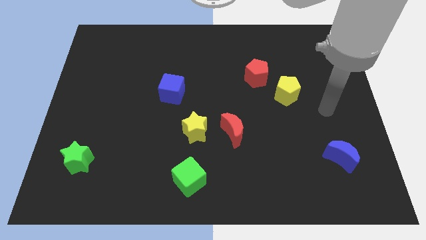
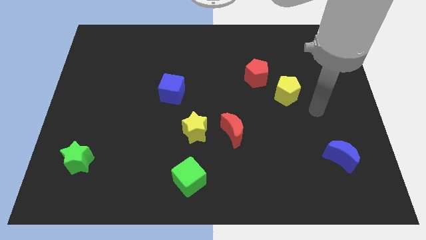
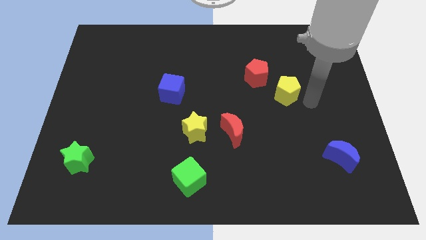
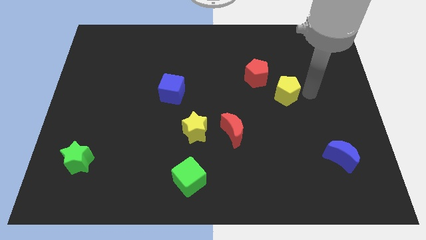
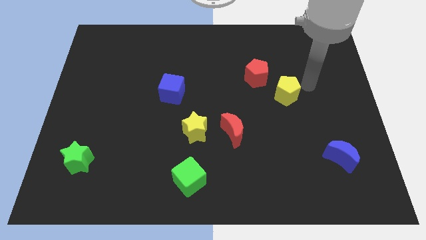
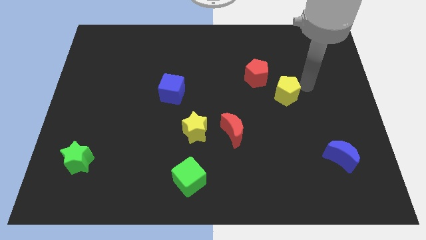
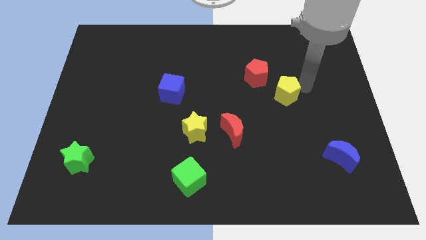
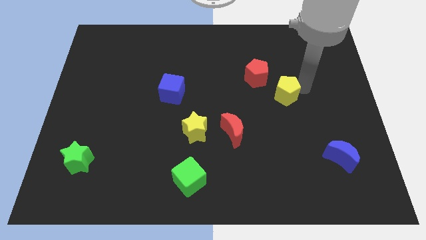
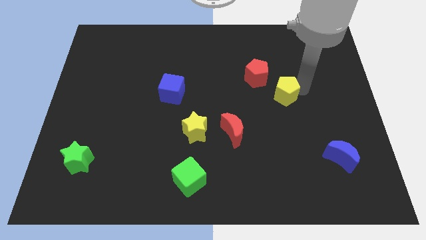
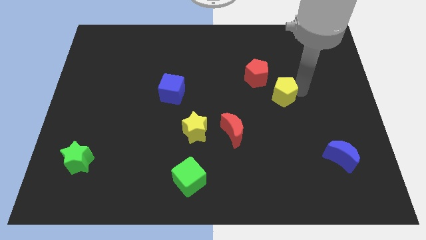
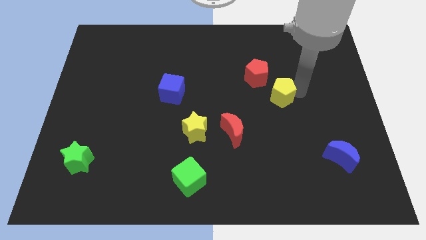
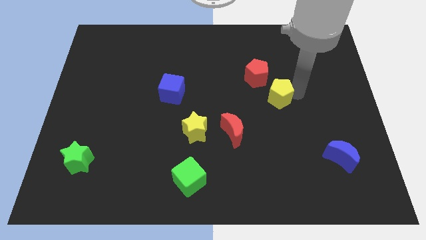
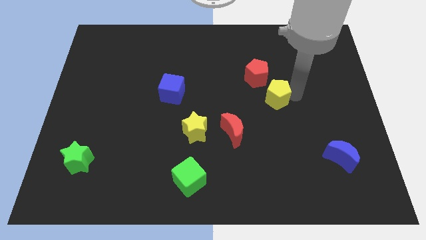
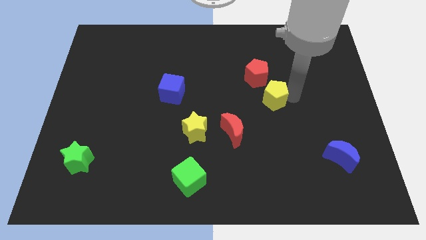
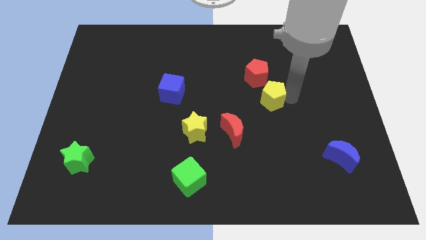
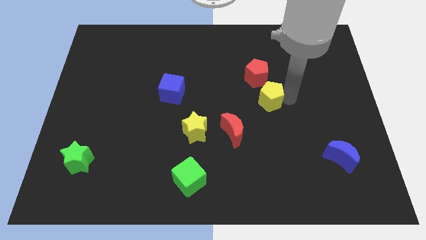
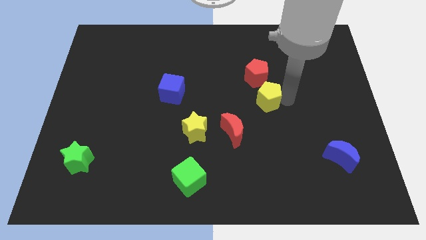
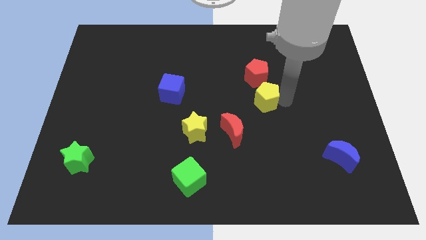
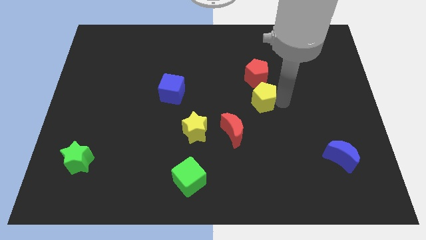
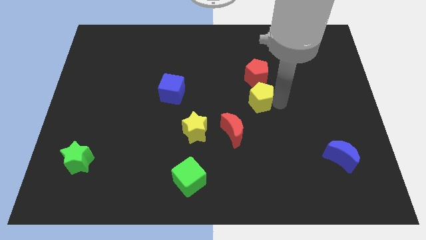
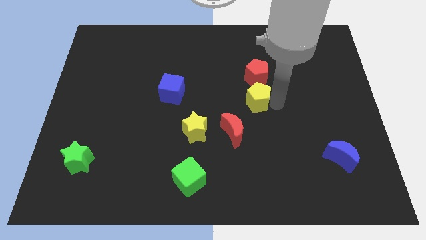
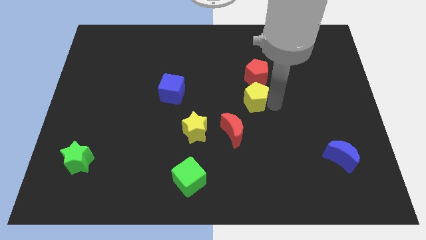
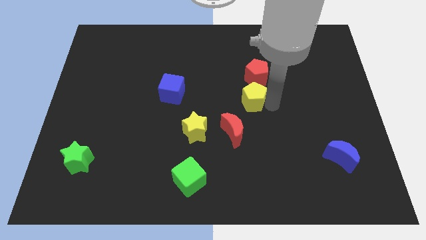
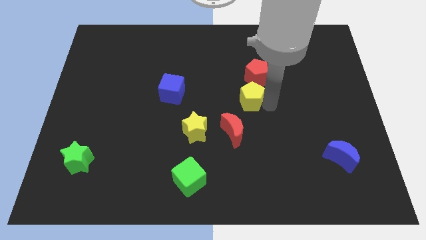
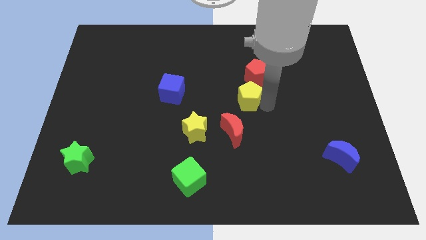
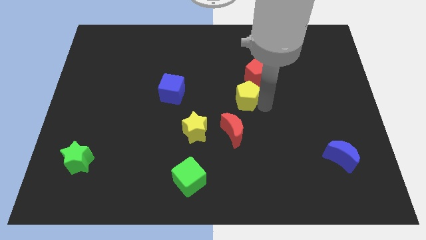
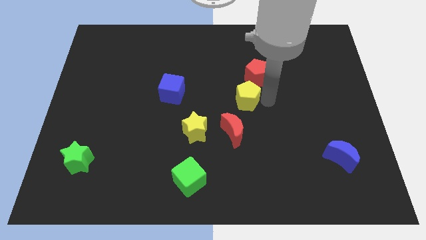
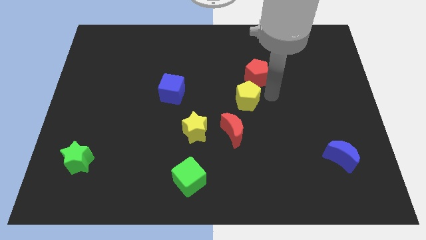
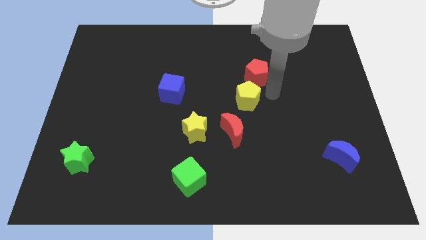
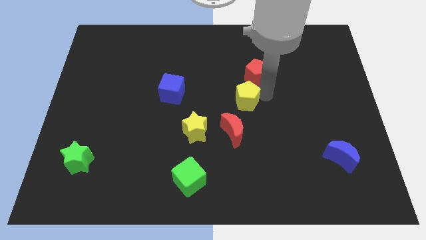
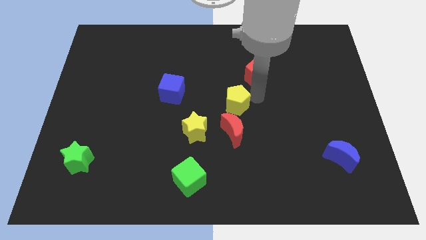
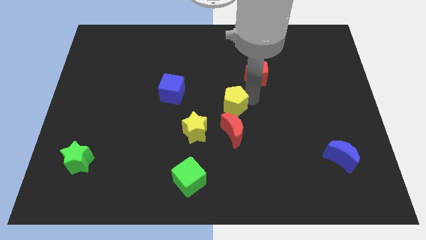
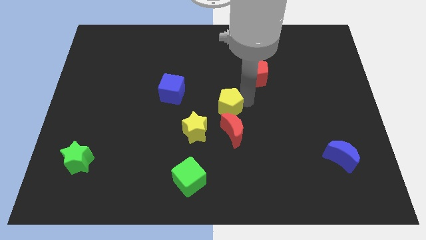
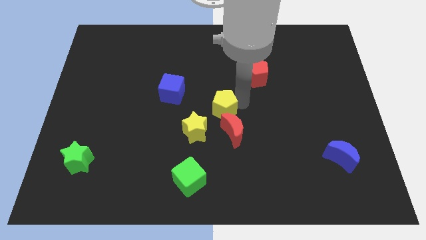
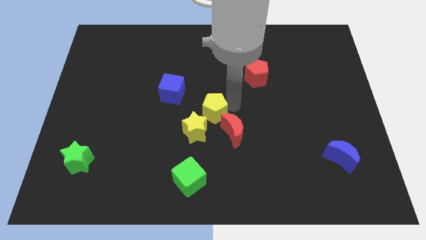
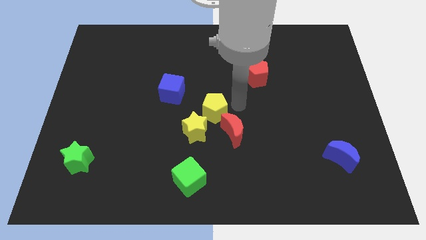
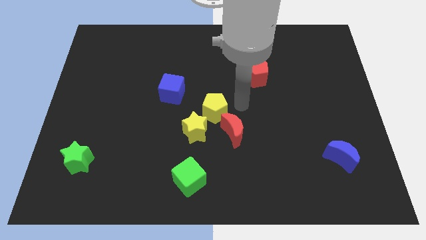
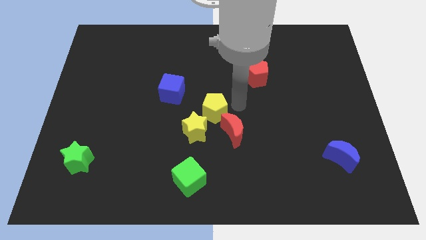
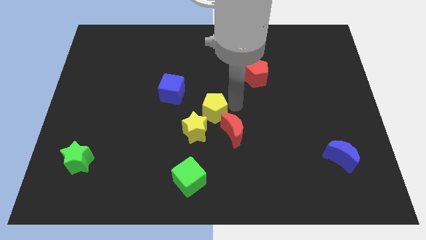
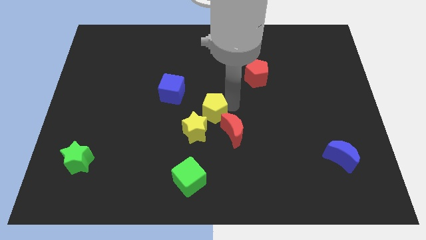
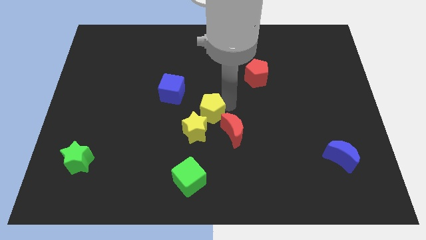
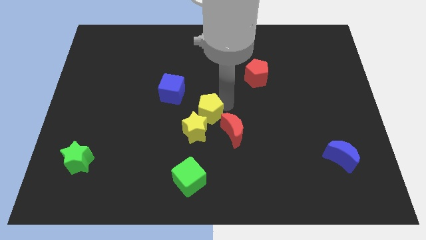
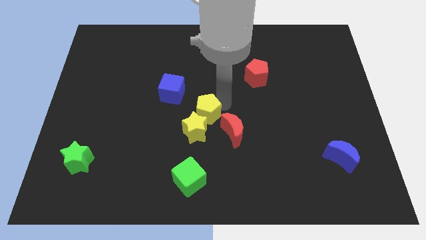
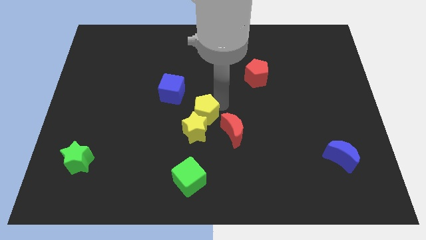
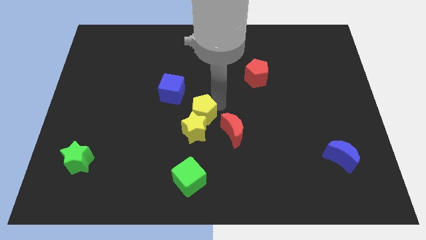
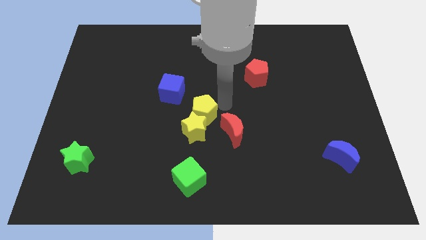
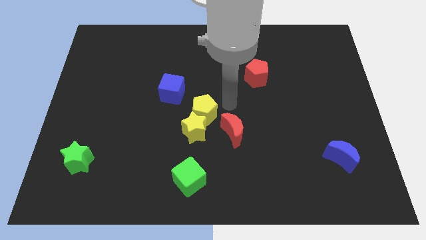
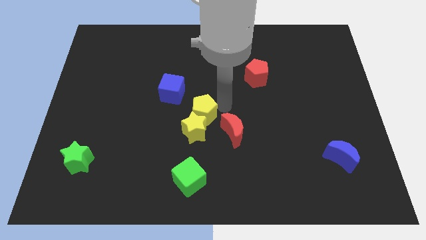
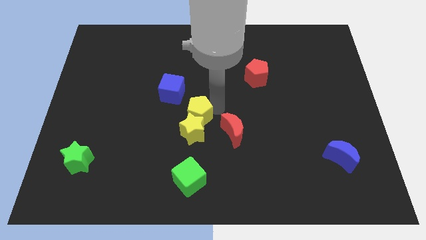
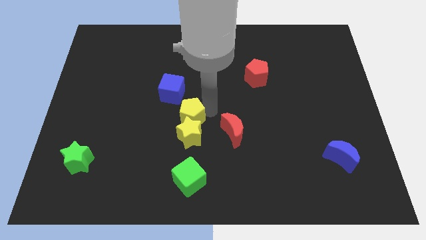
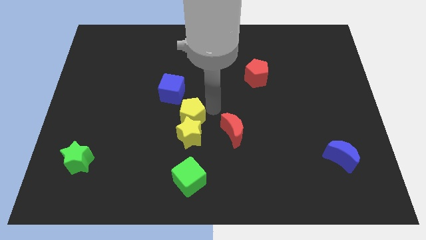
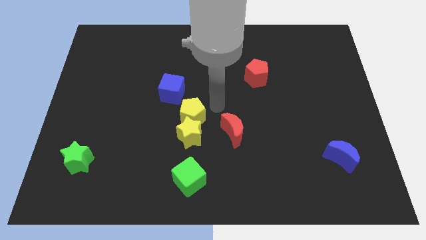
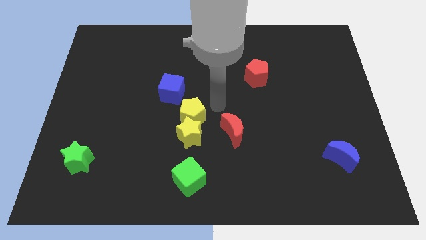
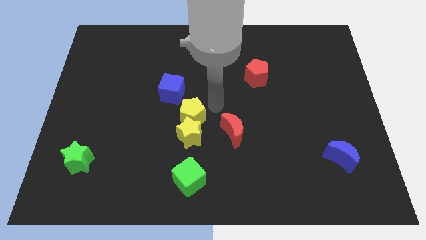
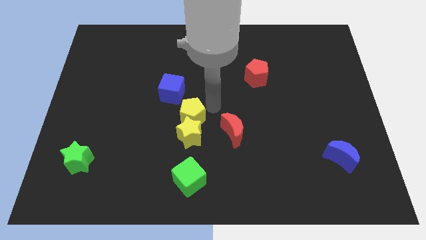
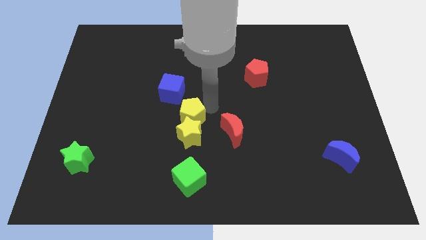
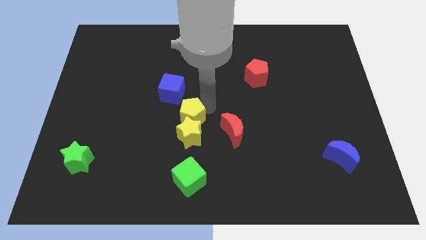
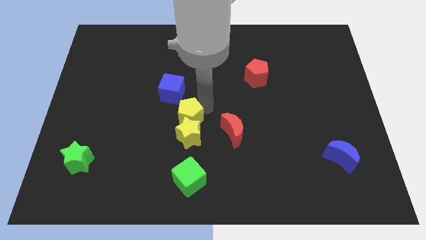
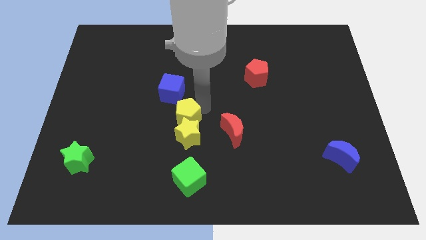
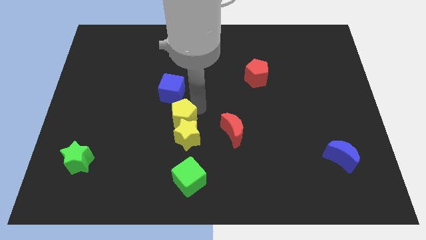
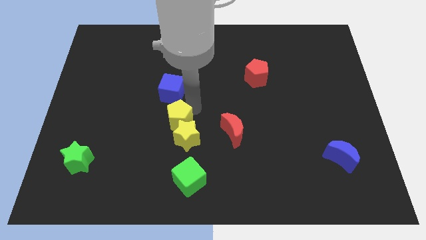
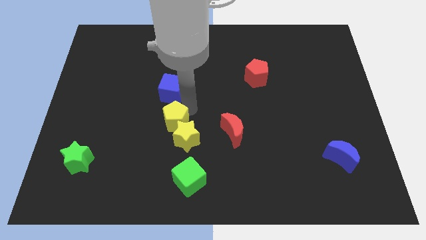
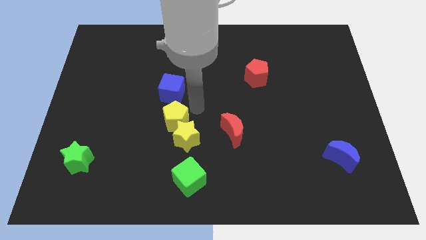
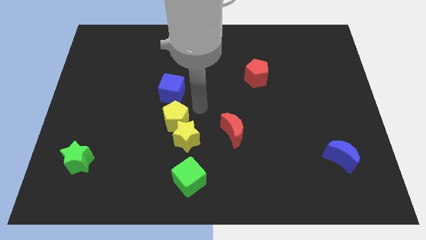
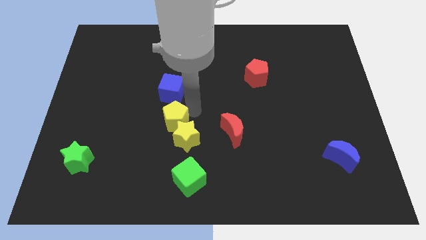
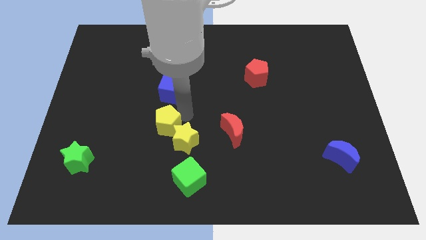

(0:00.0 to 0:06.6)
move the yellow pentagon to the left side of the yellow star

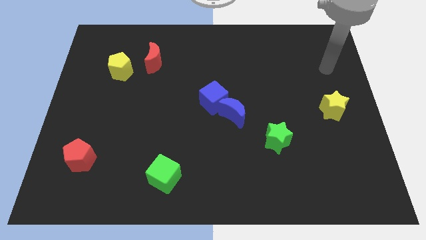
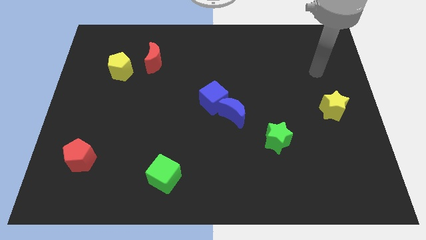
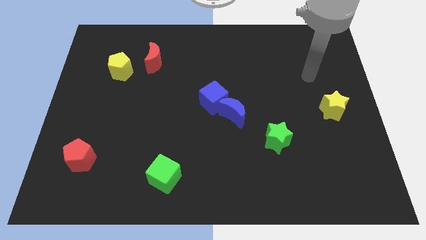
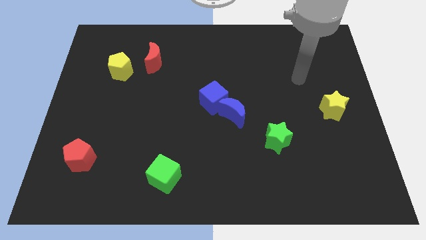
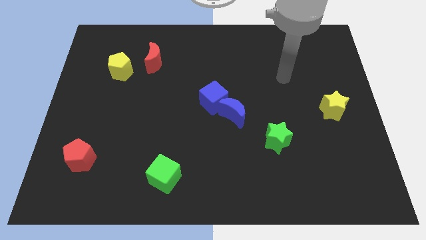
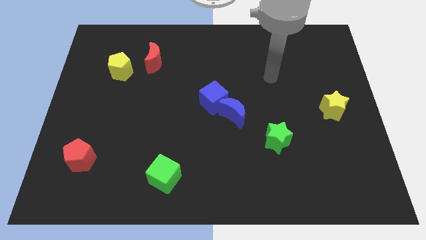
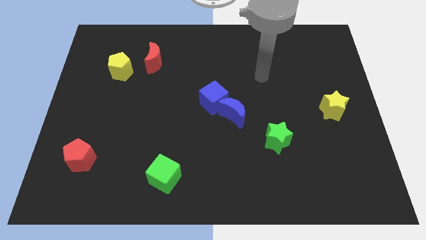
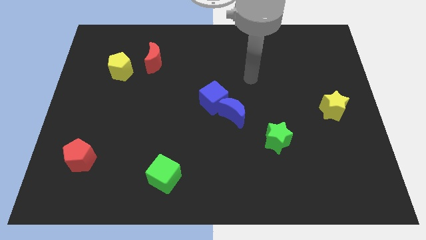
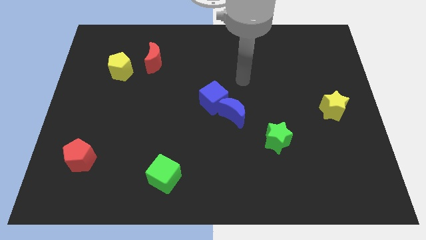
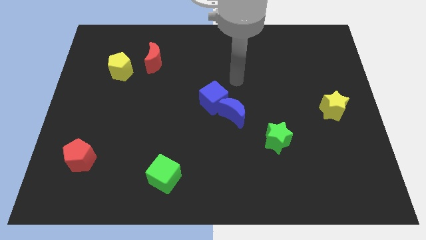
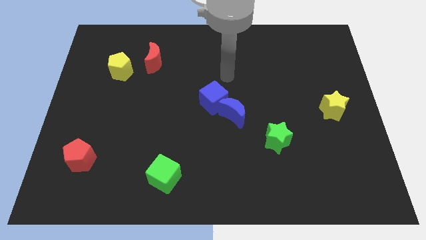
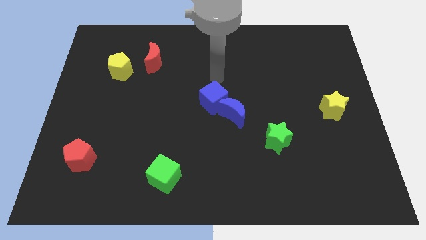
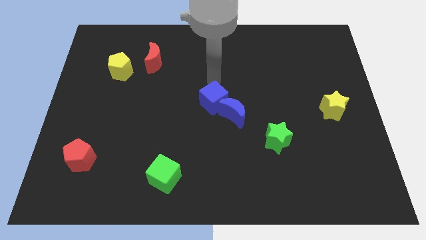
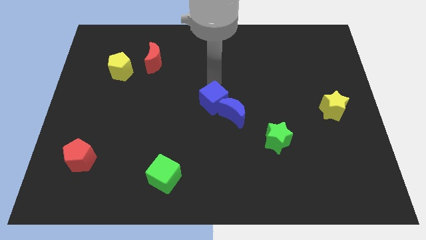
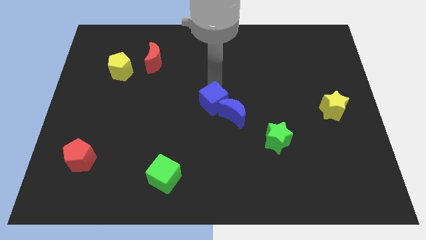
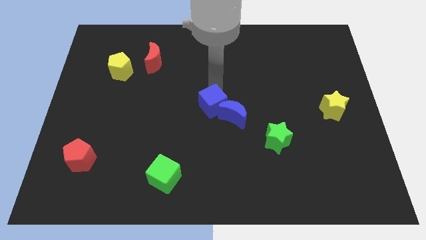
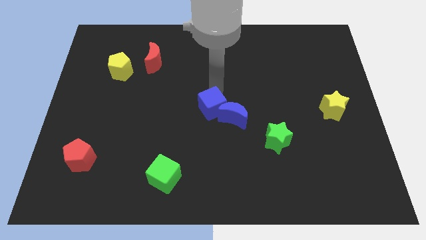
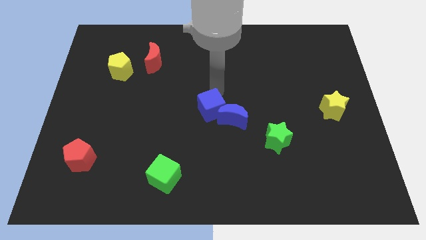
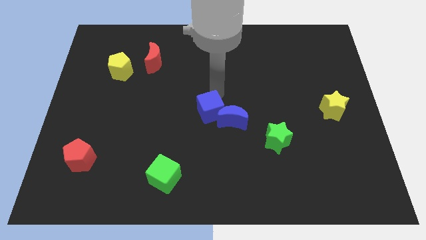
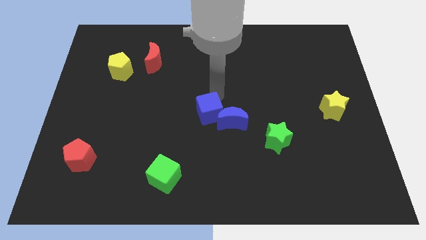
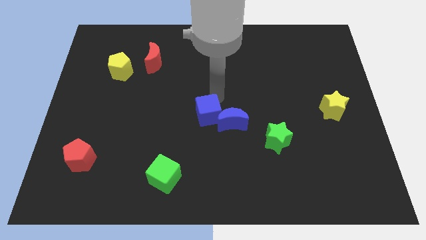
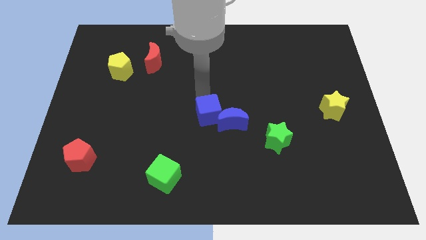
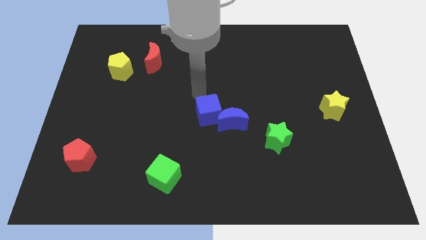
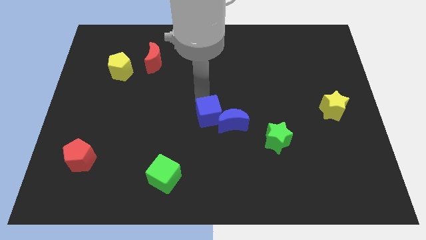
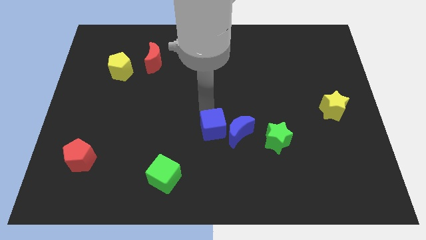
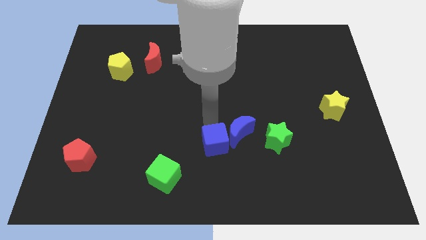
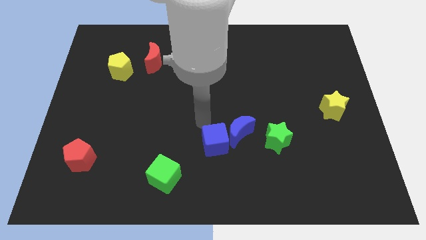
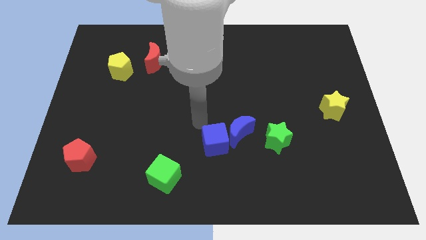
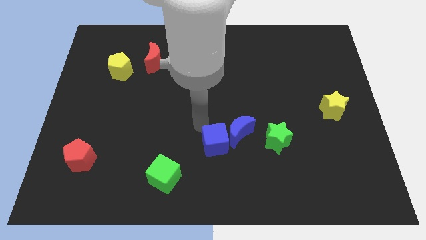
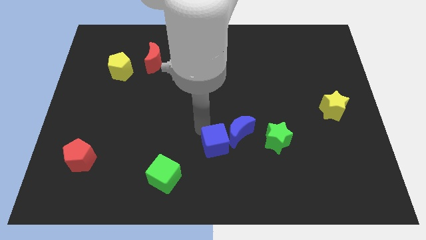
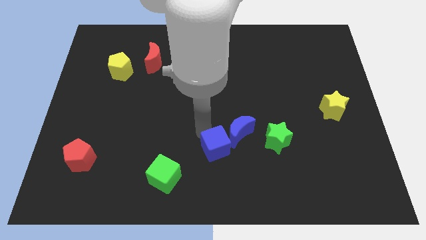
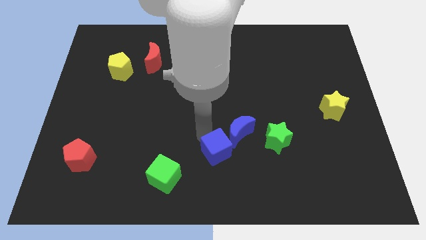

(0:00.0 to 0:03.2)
push the blue cube to the bottom side of the blue moon
